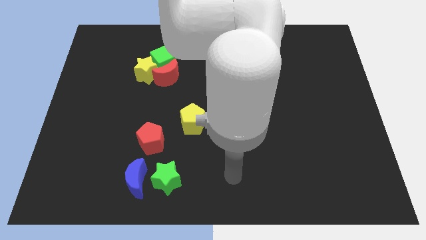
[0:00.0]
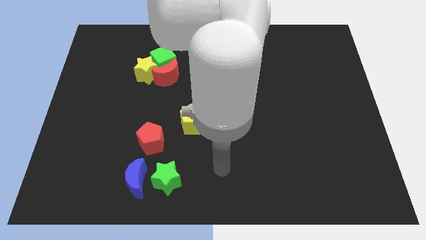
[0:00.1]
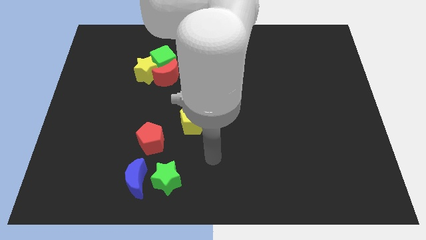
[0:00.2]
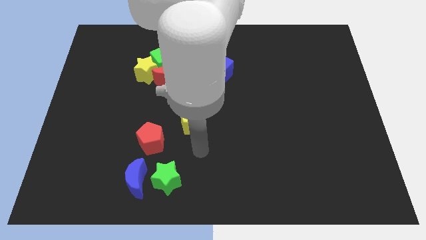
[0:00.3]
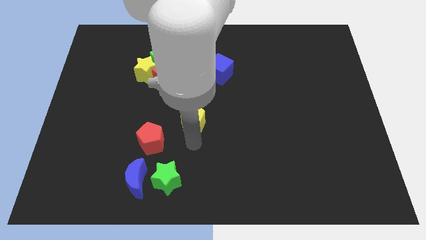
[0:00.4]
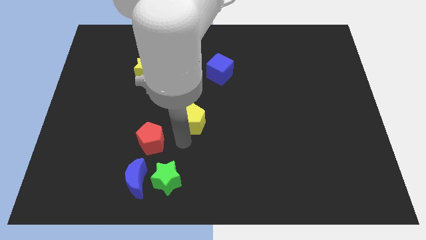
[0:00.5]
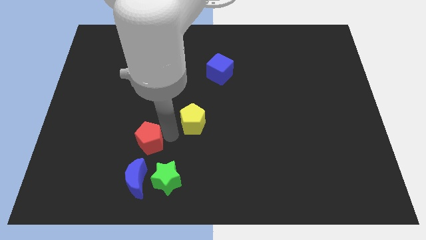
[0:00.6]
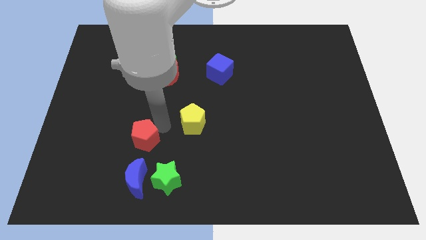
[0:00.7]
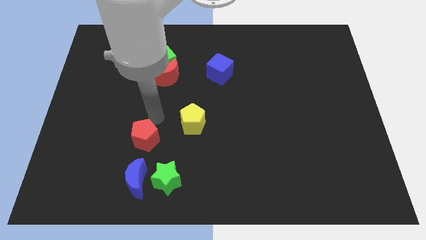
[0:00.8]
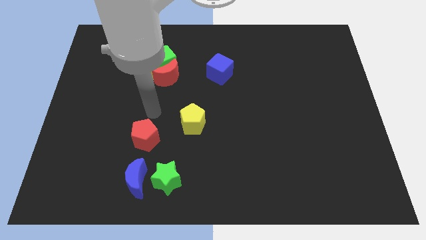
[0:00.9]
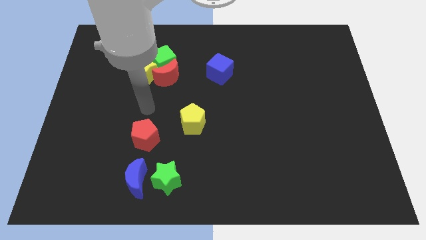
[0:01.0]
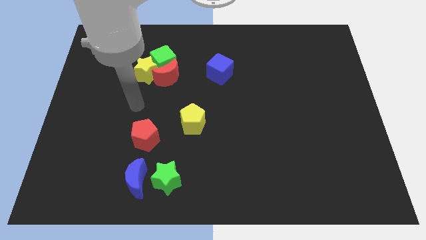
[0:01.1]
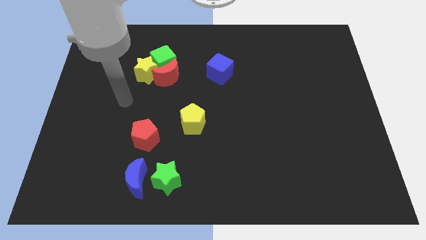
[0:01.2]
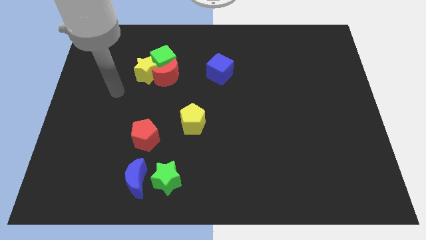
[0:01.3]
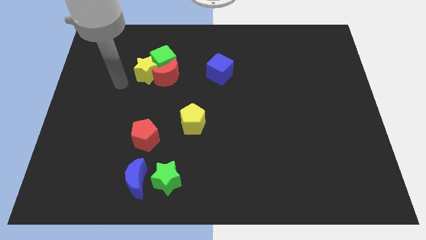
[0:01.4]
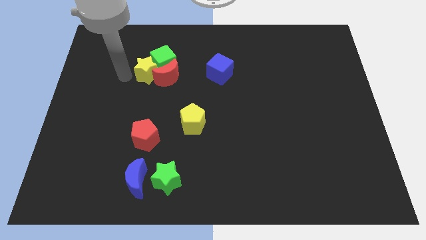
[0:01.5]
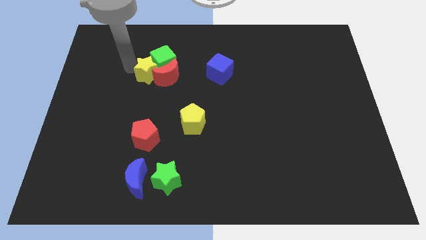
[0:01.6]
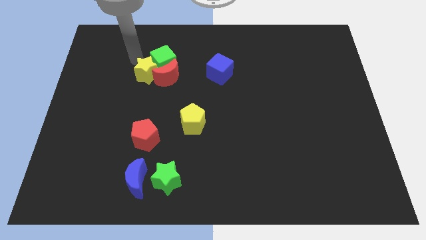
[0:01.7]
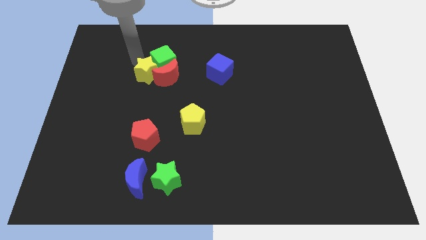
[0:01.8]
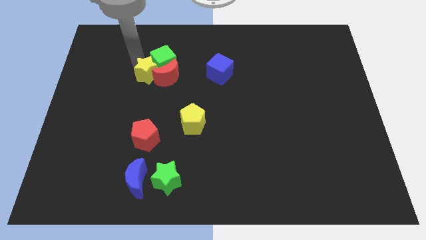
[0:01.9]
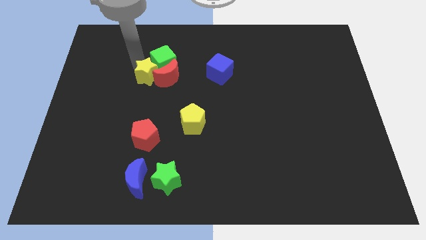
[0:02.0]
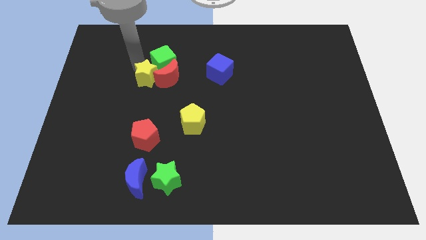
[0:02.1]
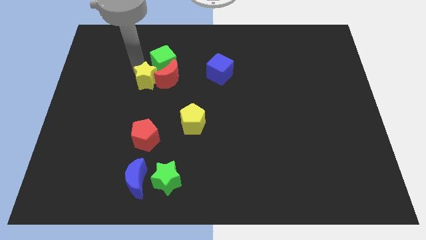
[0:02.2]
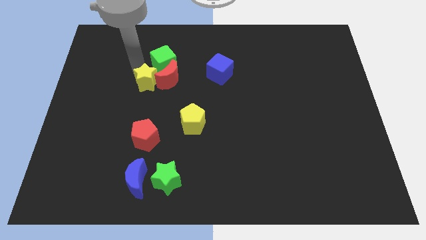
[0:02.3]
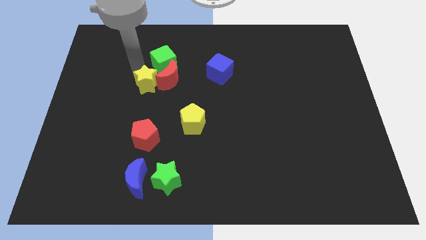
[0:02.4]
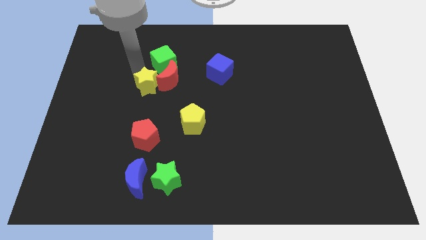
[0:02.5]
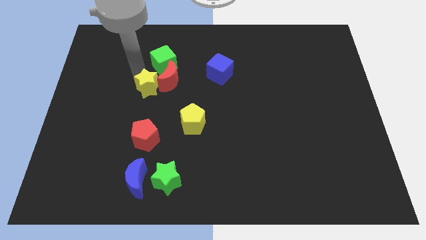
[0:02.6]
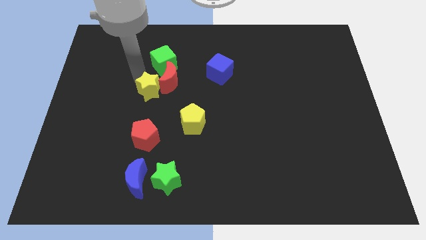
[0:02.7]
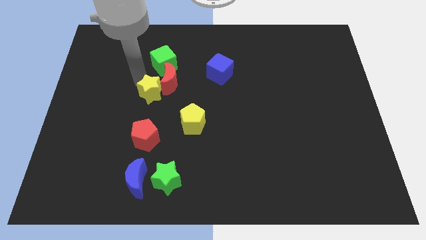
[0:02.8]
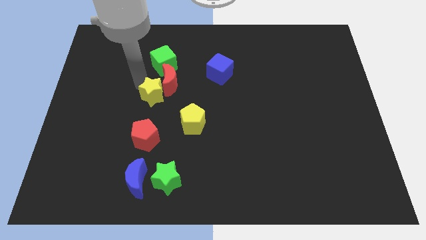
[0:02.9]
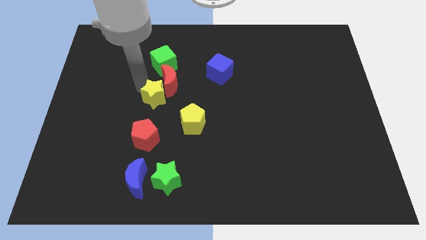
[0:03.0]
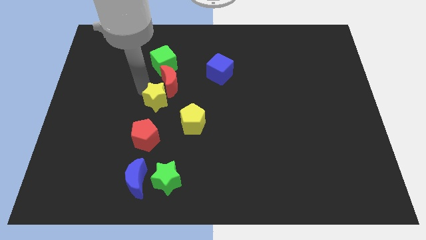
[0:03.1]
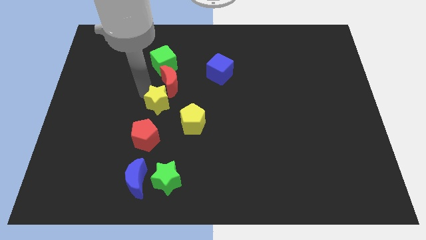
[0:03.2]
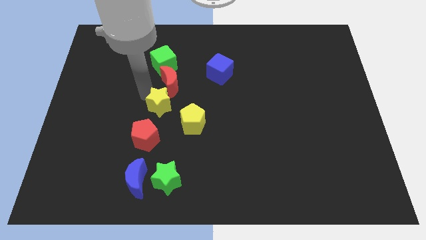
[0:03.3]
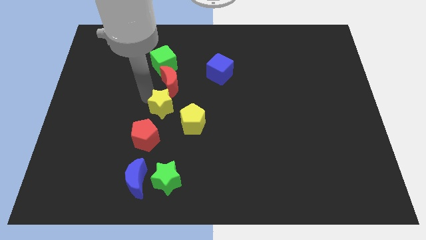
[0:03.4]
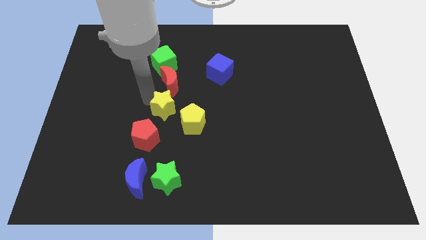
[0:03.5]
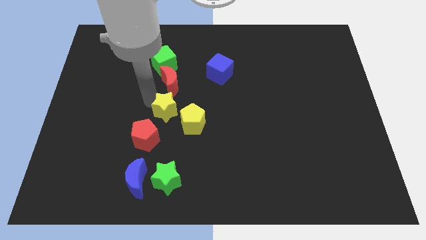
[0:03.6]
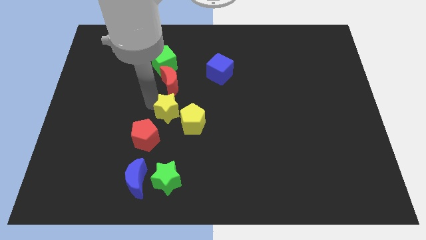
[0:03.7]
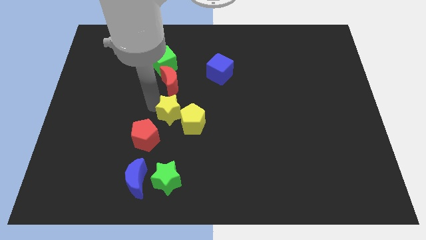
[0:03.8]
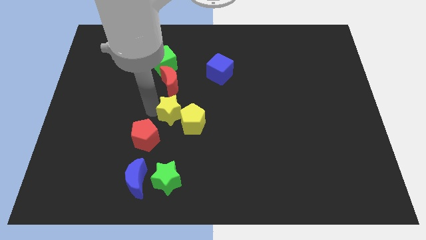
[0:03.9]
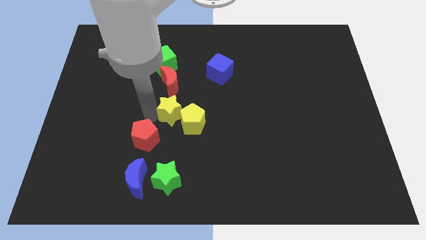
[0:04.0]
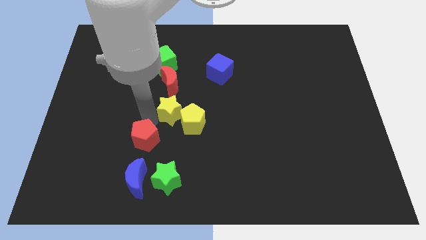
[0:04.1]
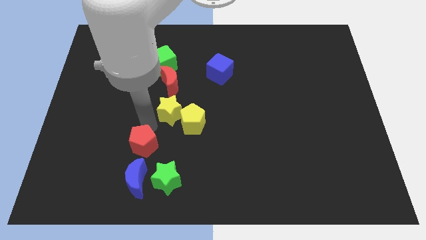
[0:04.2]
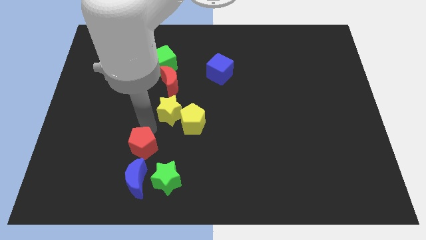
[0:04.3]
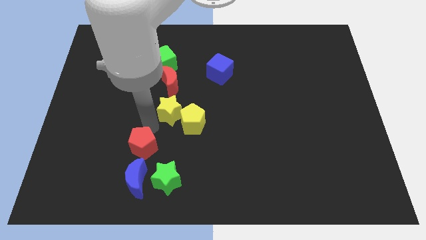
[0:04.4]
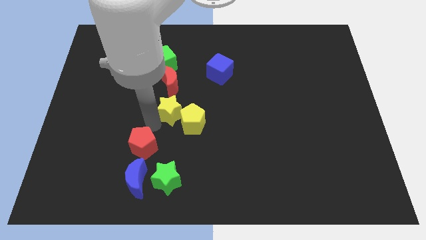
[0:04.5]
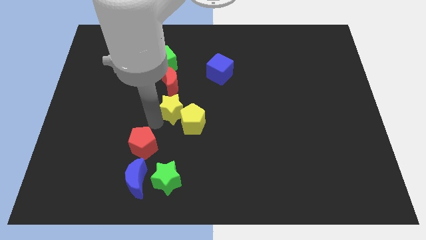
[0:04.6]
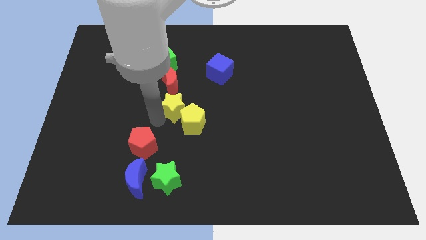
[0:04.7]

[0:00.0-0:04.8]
move the yellow star to the bottom right side of the red moon

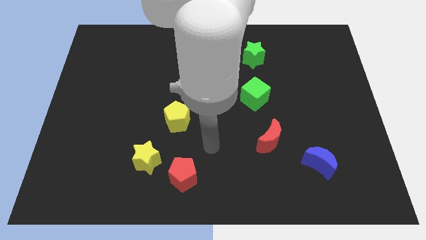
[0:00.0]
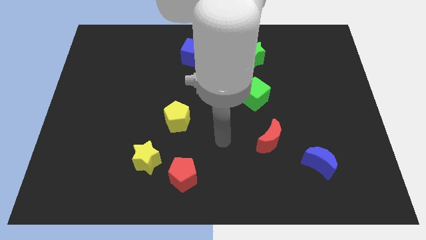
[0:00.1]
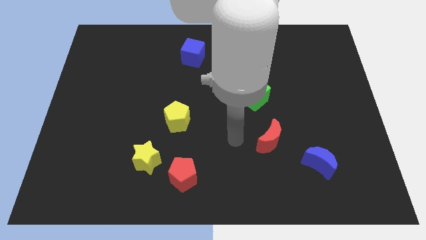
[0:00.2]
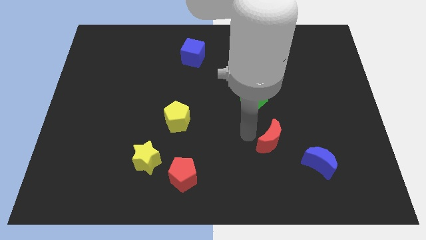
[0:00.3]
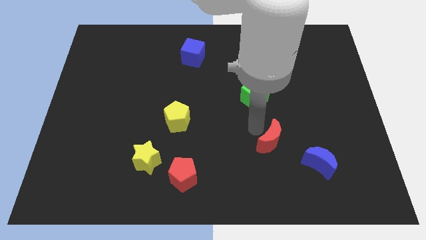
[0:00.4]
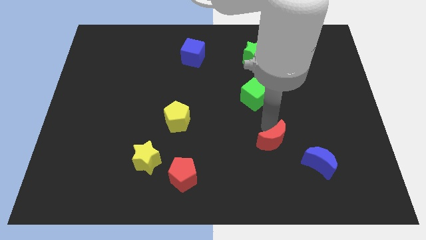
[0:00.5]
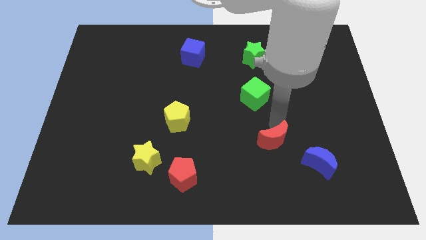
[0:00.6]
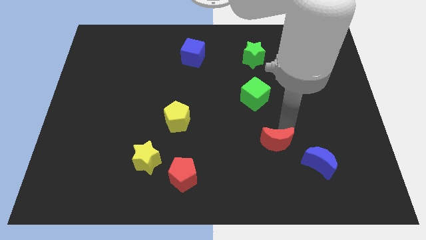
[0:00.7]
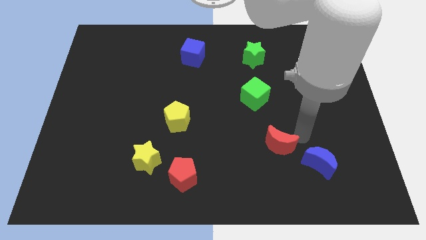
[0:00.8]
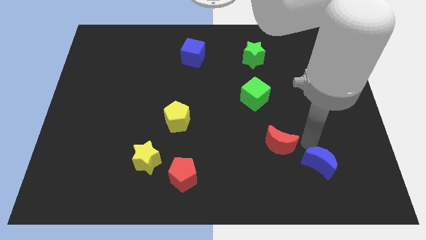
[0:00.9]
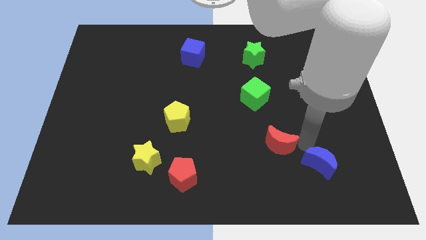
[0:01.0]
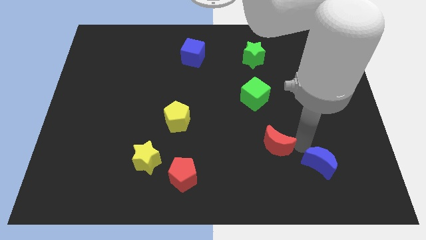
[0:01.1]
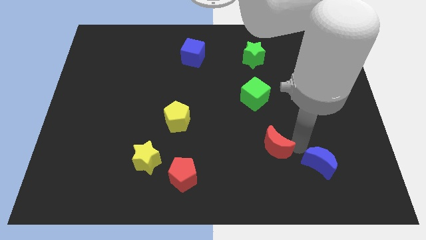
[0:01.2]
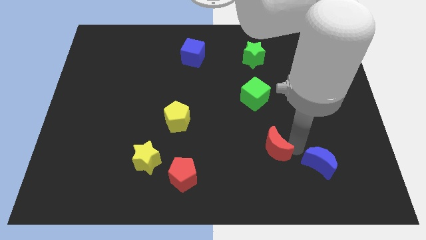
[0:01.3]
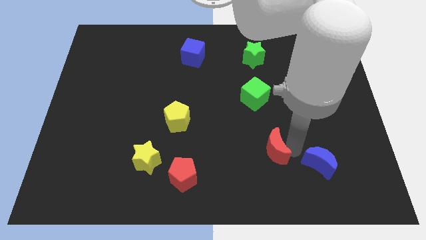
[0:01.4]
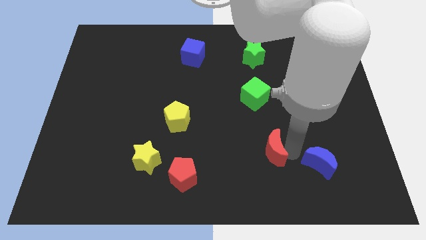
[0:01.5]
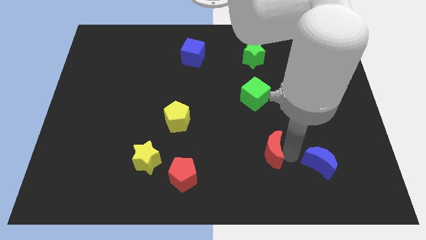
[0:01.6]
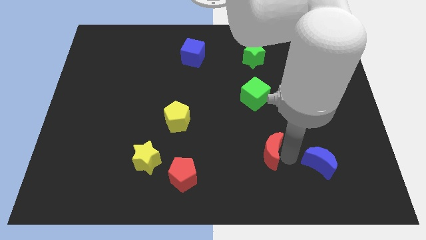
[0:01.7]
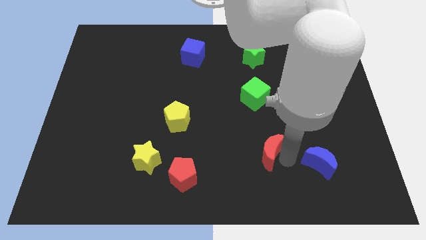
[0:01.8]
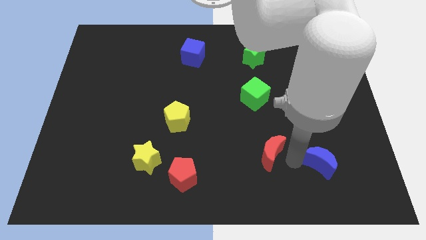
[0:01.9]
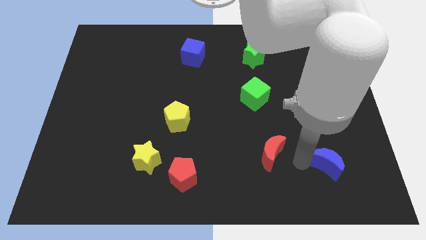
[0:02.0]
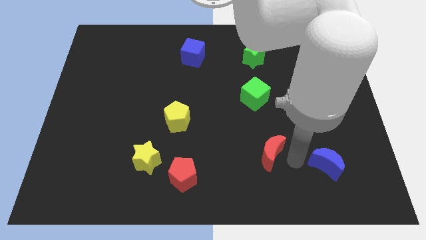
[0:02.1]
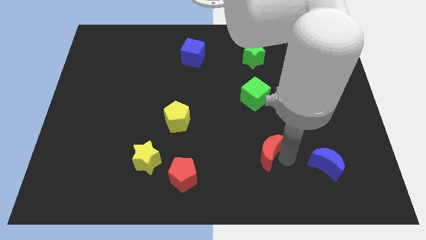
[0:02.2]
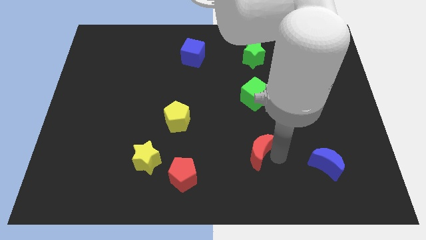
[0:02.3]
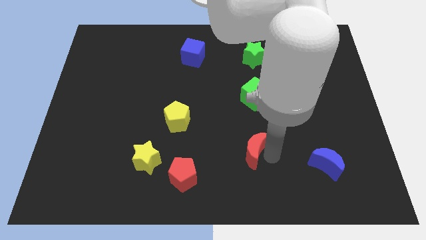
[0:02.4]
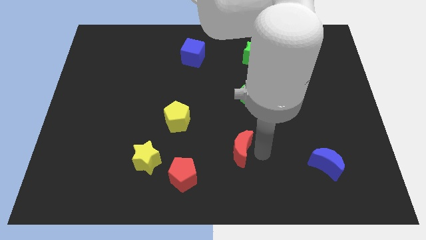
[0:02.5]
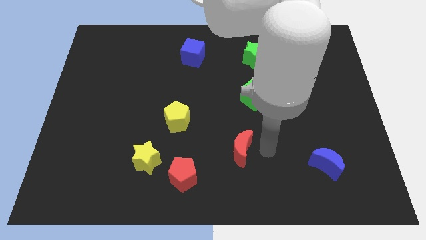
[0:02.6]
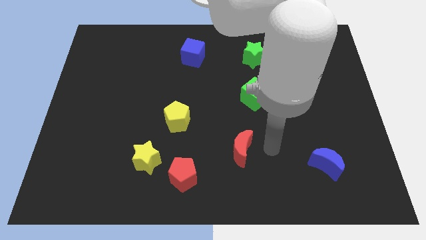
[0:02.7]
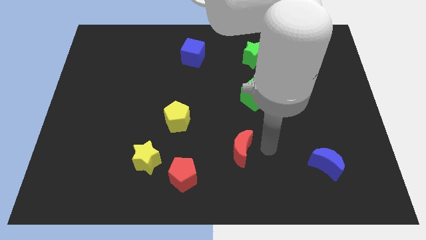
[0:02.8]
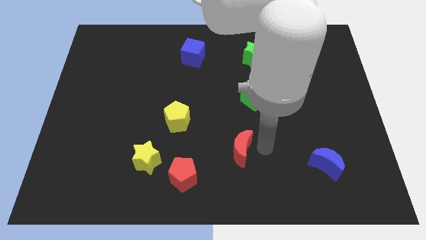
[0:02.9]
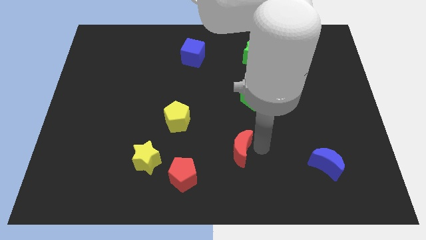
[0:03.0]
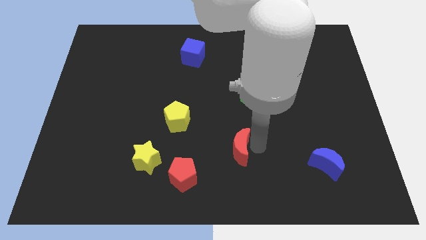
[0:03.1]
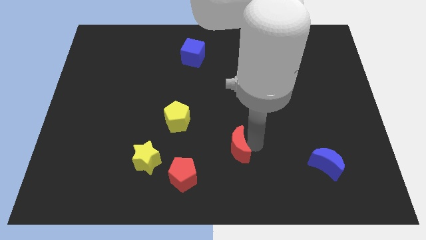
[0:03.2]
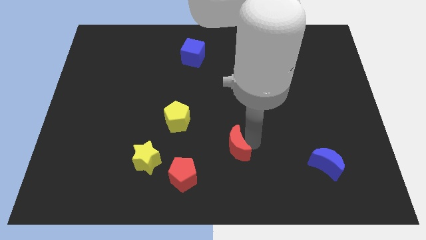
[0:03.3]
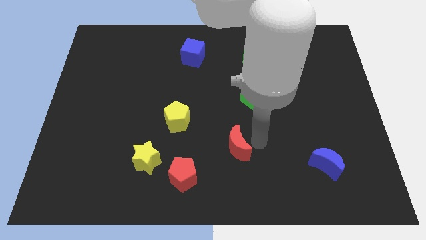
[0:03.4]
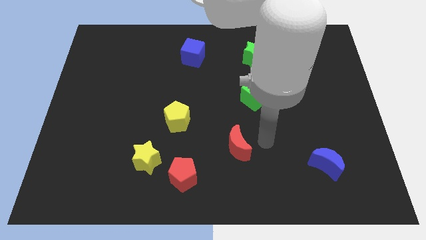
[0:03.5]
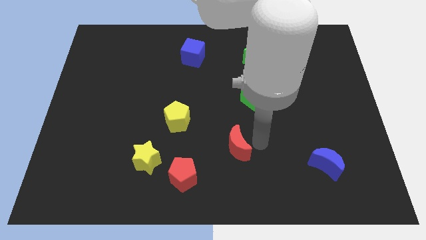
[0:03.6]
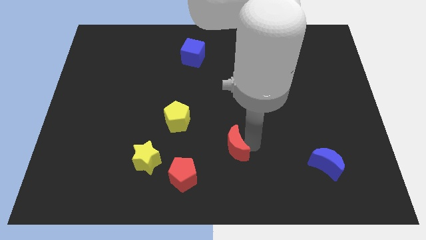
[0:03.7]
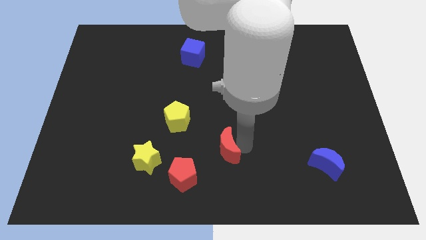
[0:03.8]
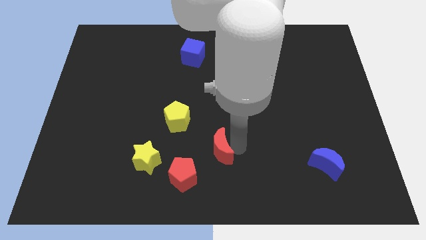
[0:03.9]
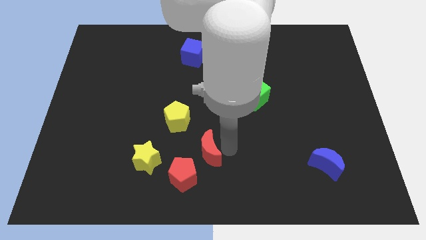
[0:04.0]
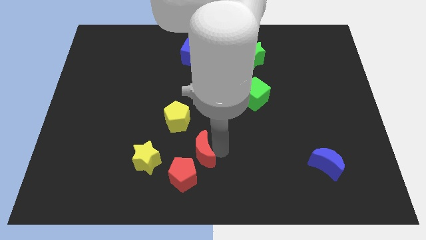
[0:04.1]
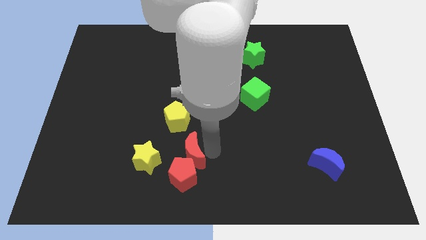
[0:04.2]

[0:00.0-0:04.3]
push the red moon to the bottom side of the yellow pentagon
